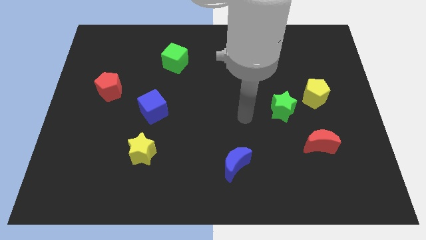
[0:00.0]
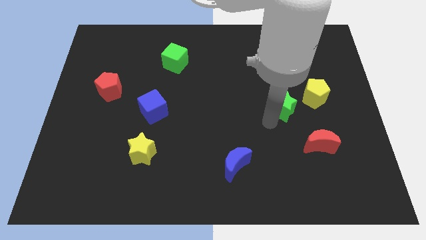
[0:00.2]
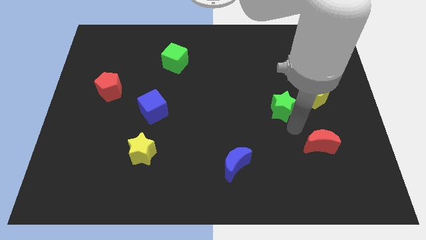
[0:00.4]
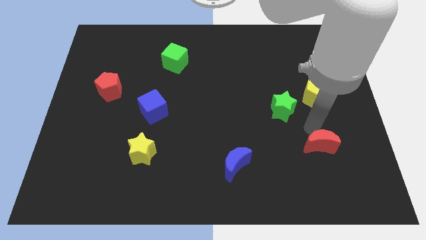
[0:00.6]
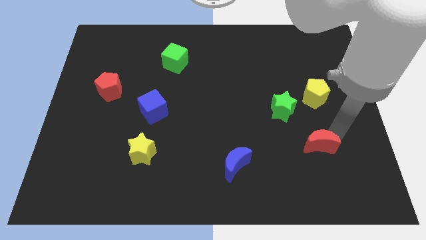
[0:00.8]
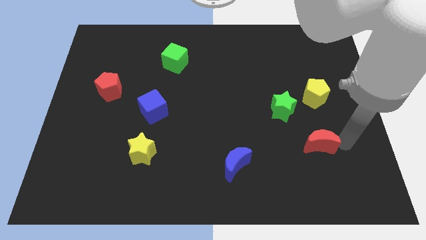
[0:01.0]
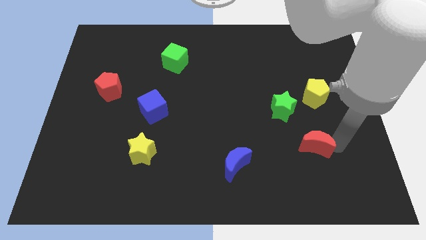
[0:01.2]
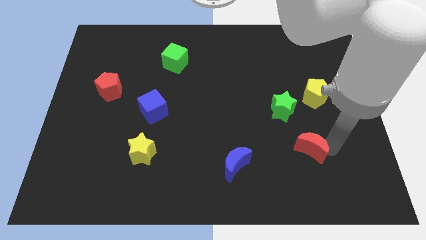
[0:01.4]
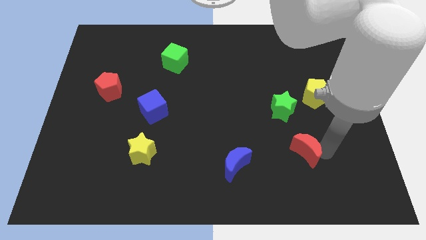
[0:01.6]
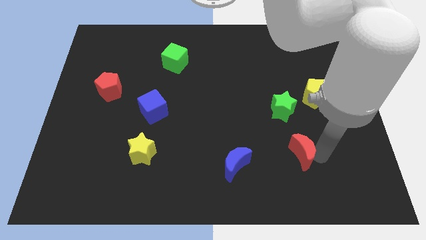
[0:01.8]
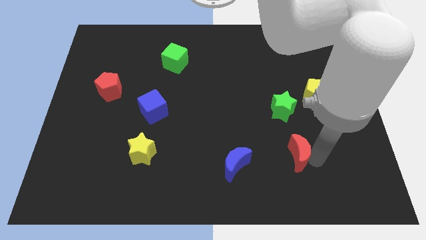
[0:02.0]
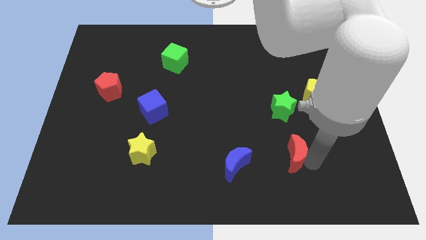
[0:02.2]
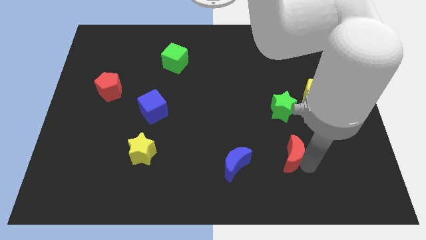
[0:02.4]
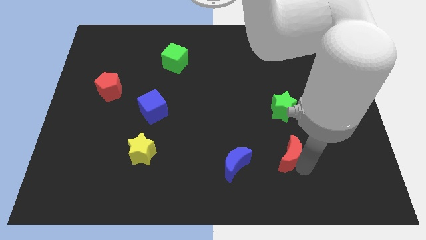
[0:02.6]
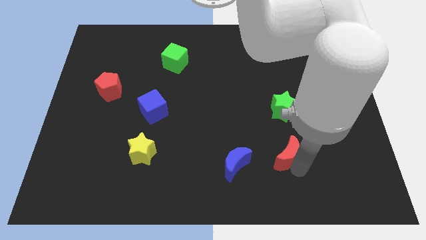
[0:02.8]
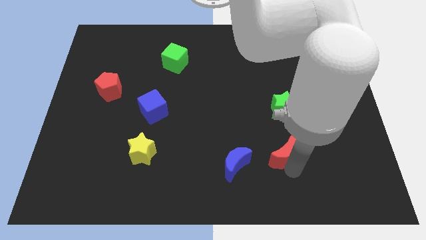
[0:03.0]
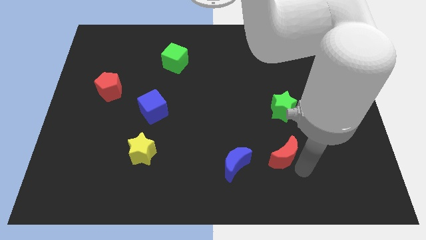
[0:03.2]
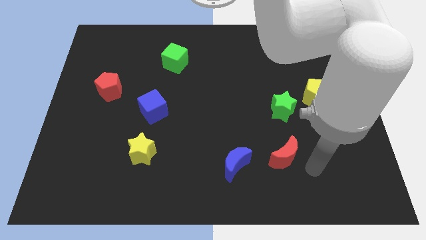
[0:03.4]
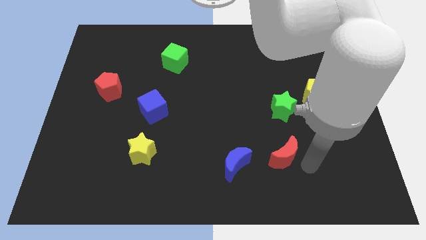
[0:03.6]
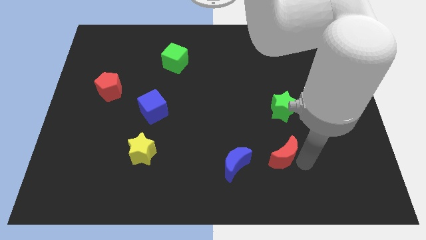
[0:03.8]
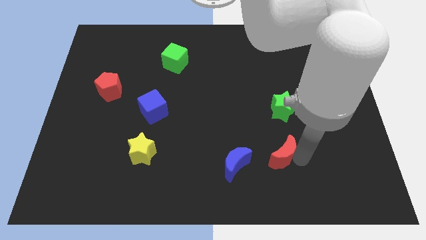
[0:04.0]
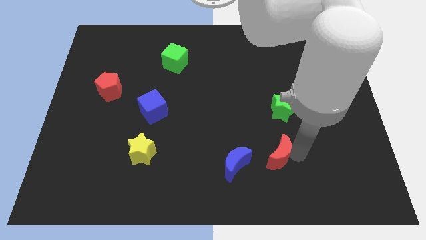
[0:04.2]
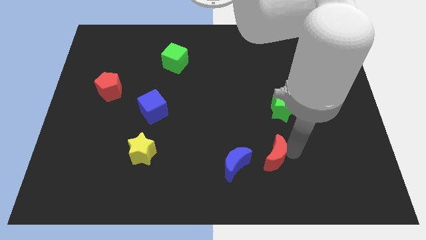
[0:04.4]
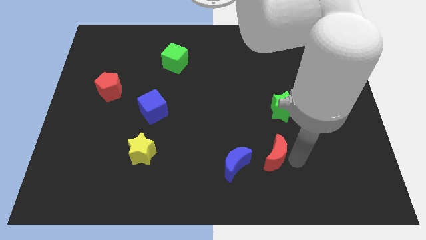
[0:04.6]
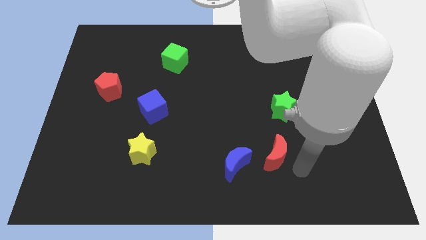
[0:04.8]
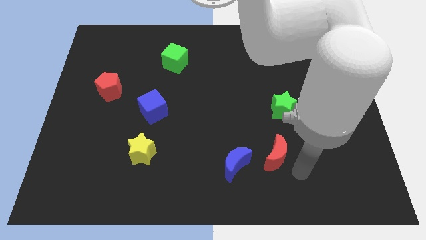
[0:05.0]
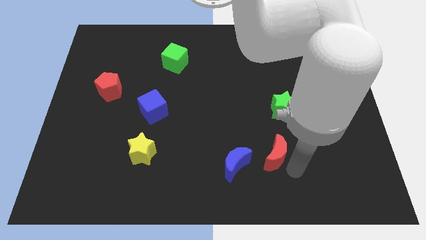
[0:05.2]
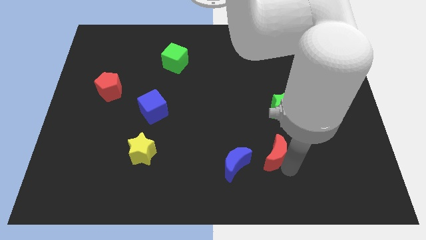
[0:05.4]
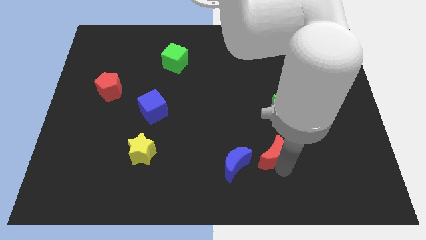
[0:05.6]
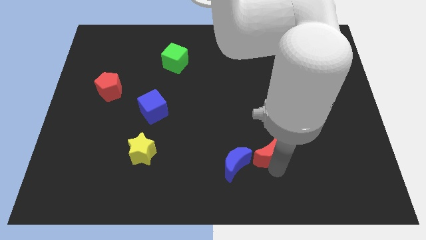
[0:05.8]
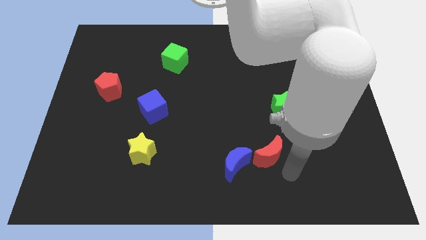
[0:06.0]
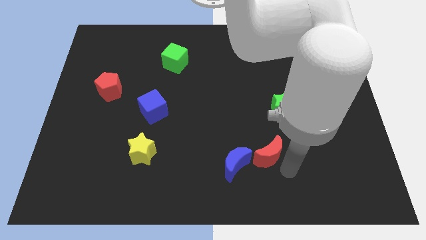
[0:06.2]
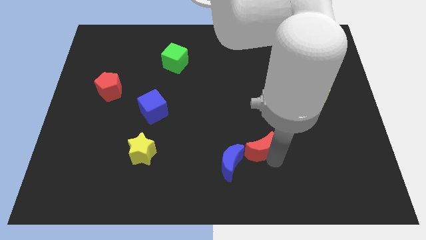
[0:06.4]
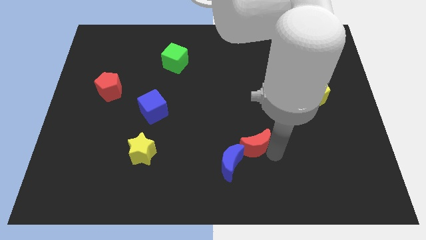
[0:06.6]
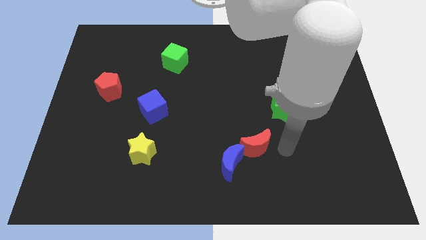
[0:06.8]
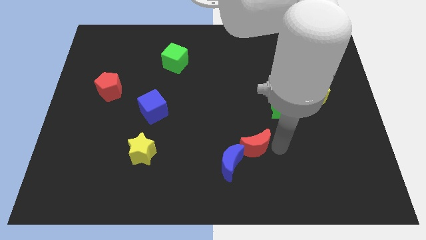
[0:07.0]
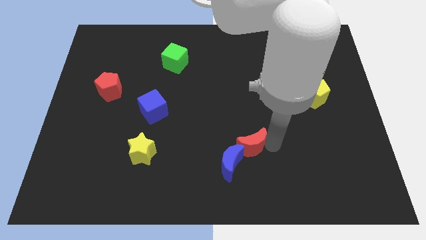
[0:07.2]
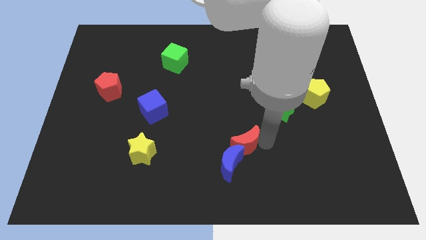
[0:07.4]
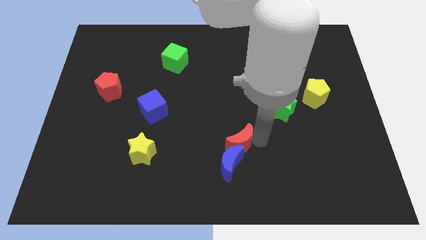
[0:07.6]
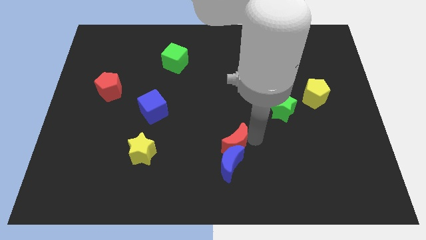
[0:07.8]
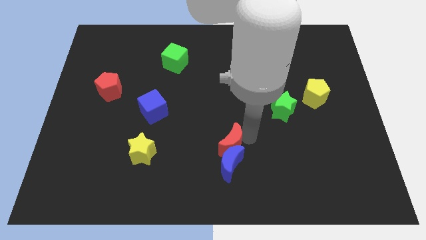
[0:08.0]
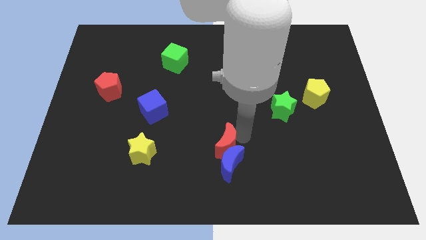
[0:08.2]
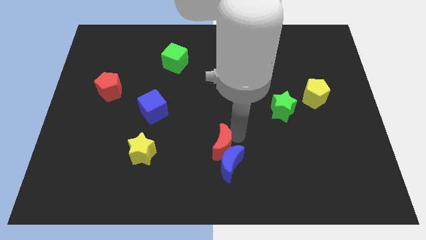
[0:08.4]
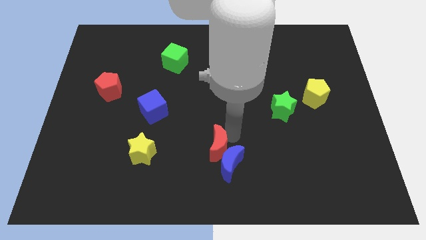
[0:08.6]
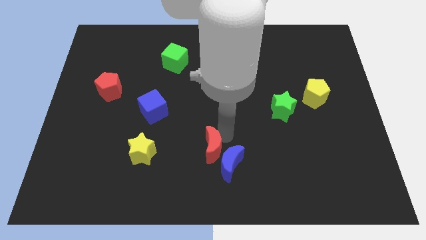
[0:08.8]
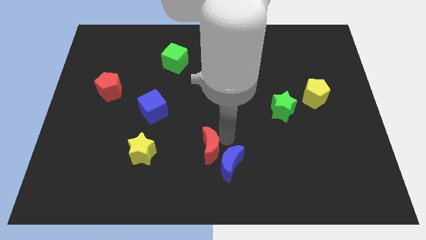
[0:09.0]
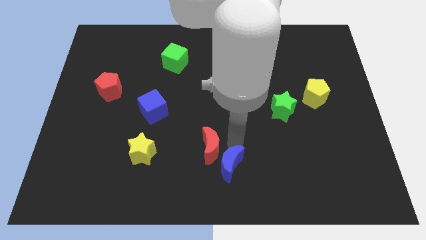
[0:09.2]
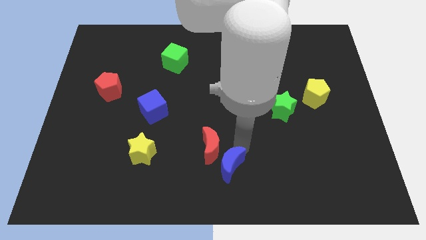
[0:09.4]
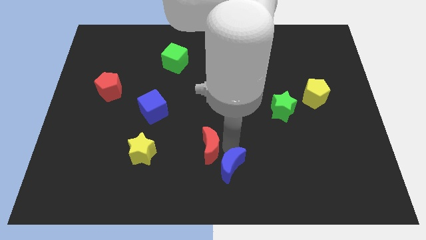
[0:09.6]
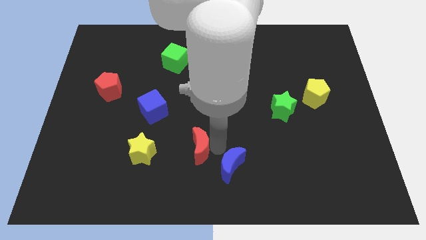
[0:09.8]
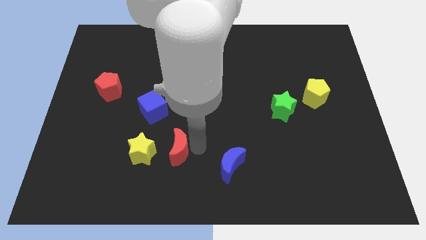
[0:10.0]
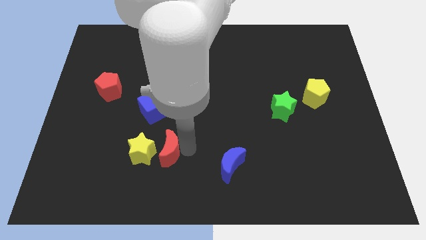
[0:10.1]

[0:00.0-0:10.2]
slide the red moon next to the yellow star

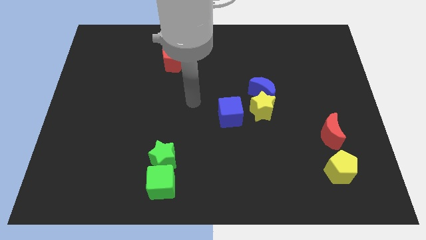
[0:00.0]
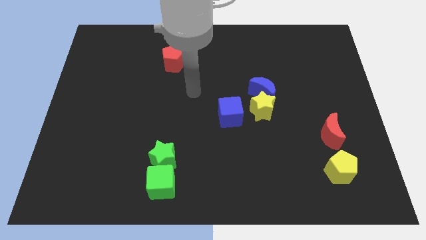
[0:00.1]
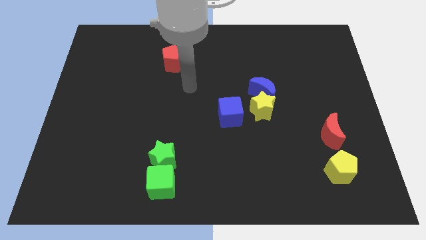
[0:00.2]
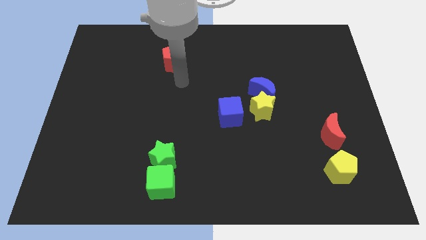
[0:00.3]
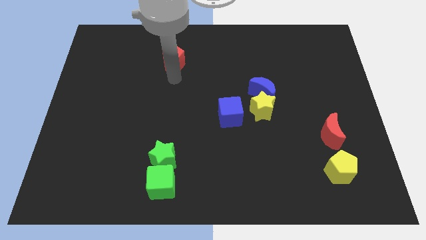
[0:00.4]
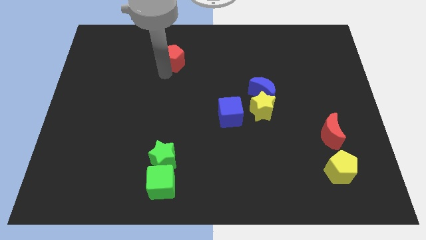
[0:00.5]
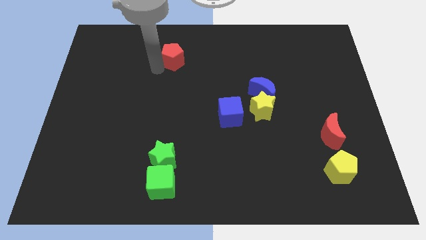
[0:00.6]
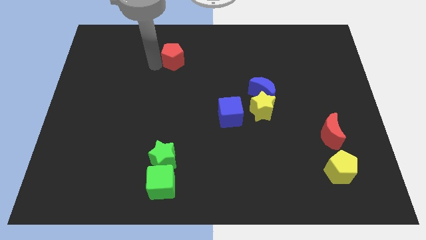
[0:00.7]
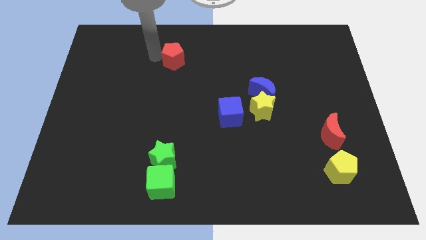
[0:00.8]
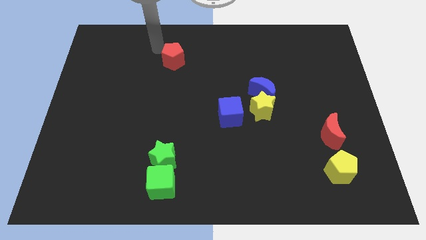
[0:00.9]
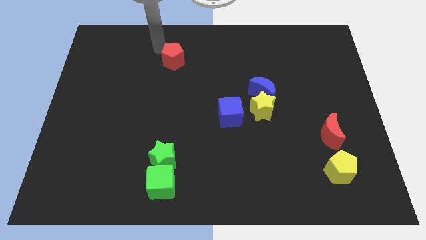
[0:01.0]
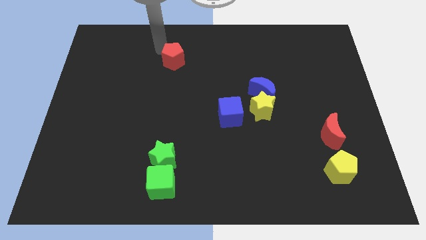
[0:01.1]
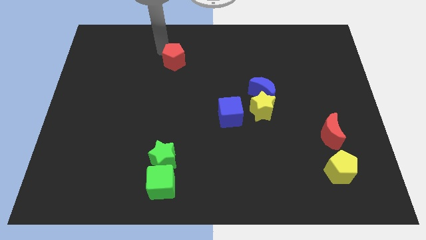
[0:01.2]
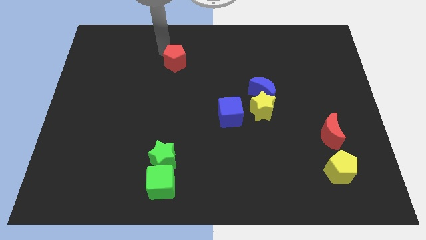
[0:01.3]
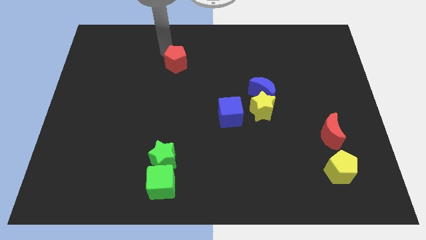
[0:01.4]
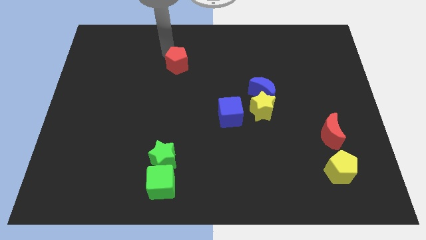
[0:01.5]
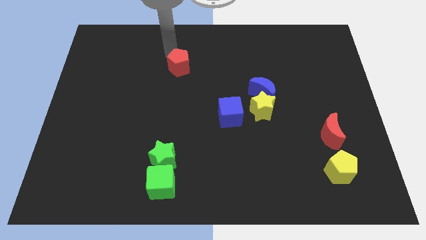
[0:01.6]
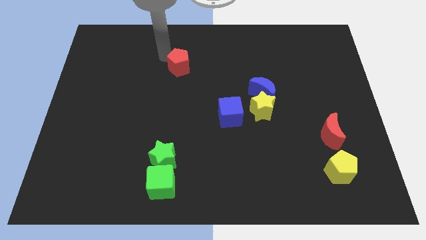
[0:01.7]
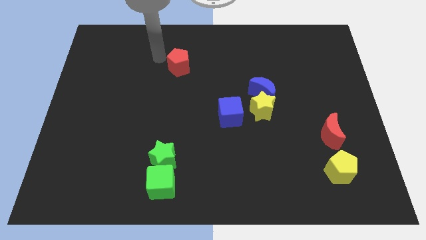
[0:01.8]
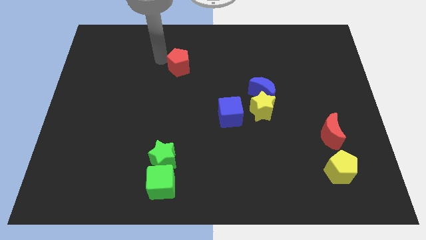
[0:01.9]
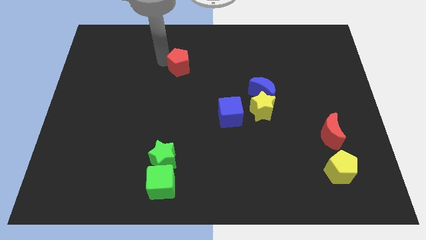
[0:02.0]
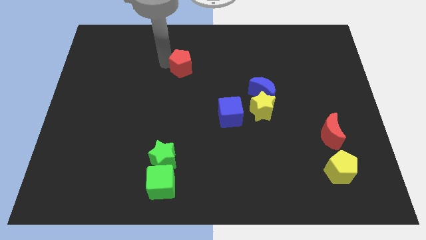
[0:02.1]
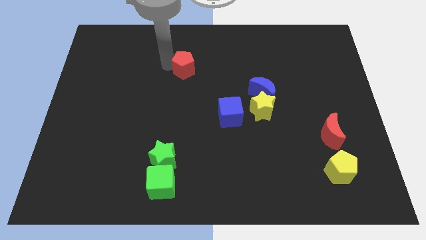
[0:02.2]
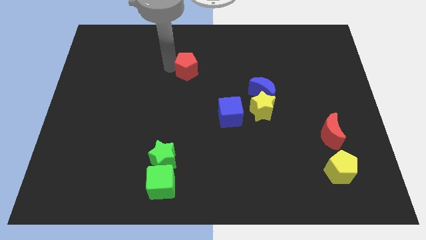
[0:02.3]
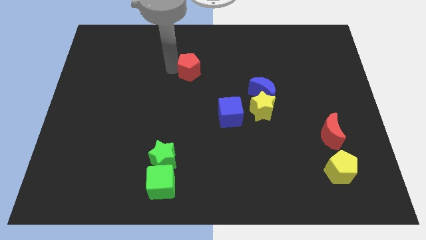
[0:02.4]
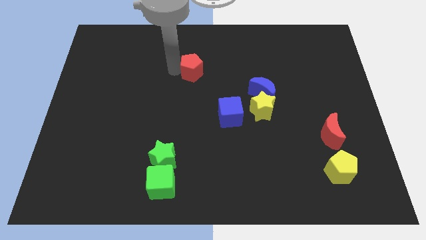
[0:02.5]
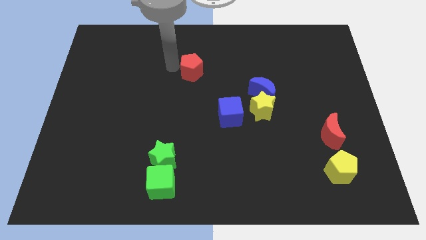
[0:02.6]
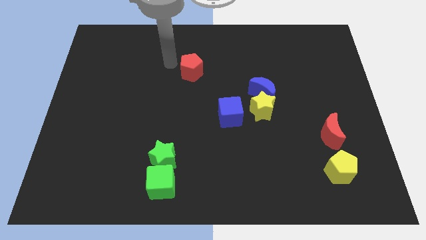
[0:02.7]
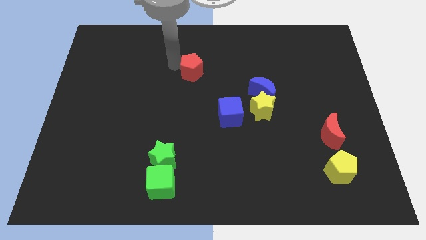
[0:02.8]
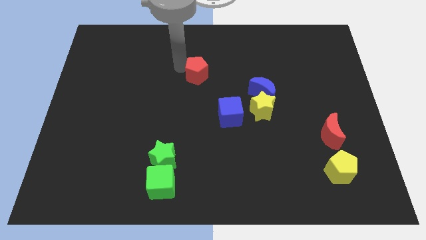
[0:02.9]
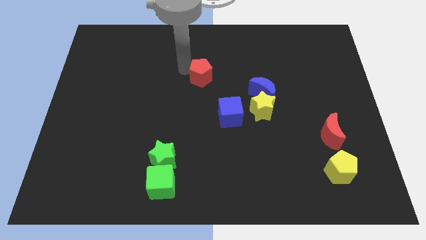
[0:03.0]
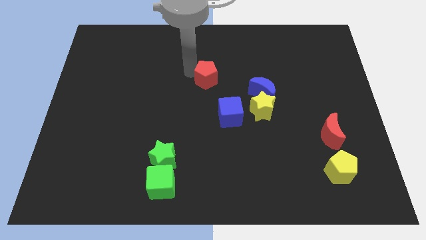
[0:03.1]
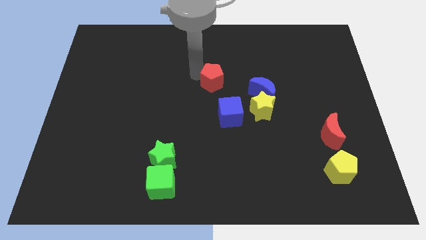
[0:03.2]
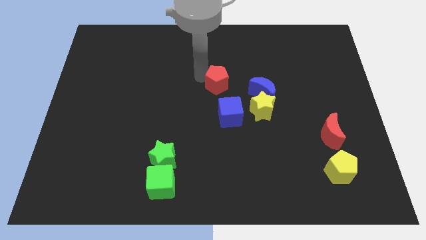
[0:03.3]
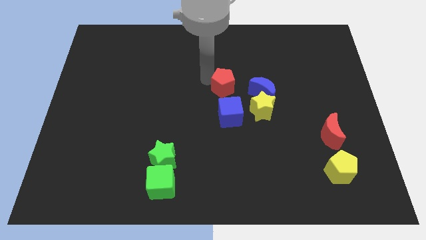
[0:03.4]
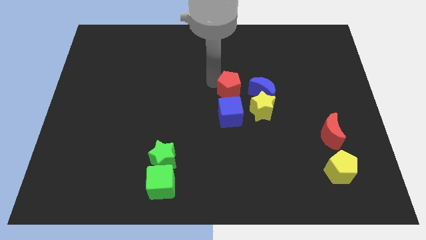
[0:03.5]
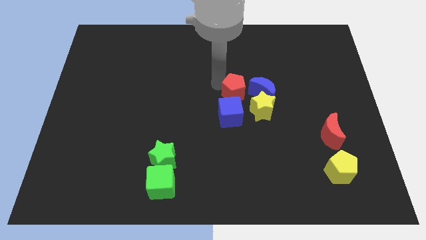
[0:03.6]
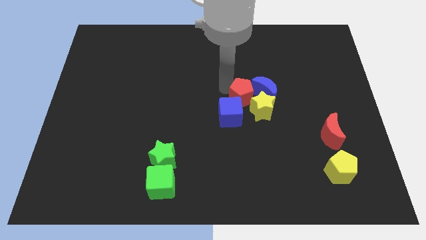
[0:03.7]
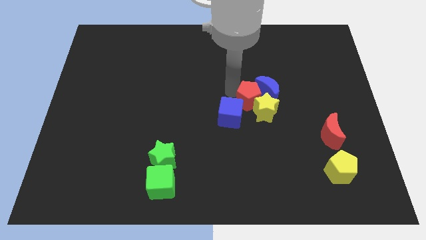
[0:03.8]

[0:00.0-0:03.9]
move the red pentagon towards the yellow star
